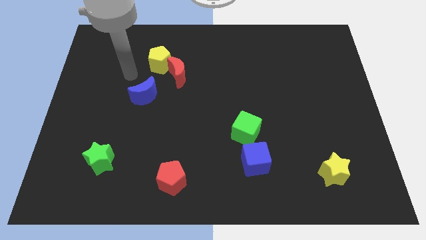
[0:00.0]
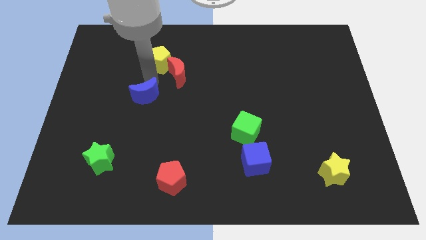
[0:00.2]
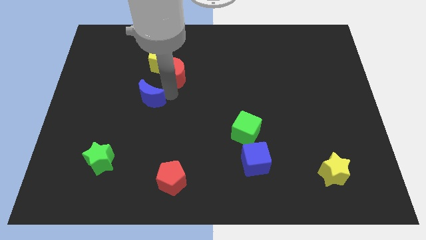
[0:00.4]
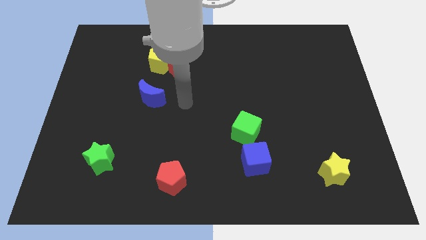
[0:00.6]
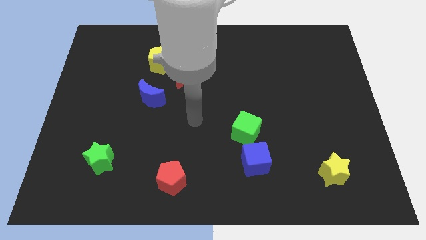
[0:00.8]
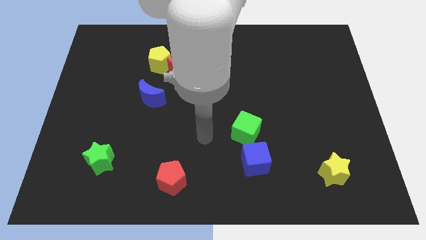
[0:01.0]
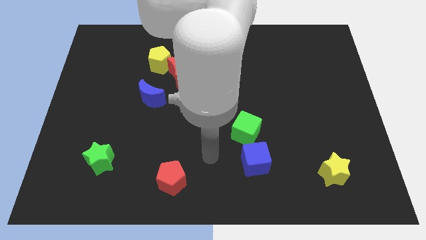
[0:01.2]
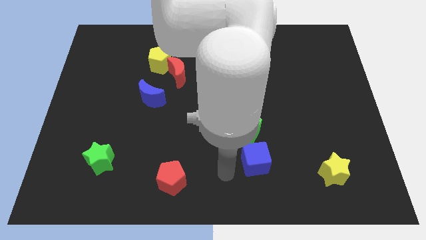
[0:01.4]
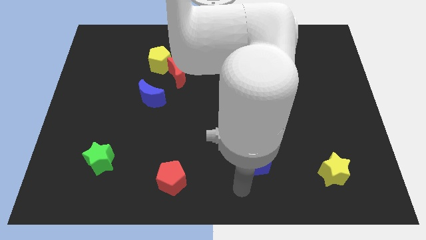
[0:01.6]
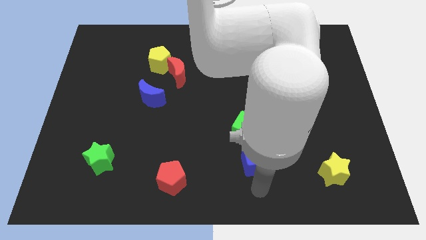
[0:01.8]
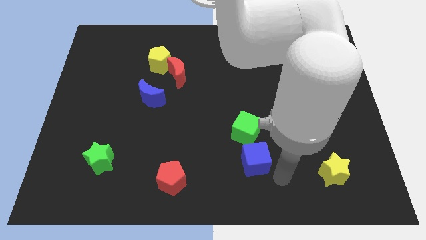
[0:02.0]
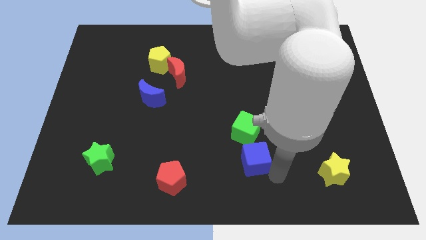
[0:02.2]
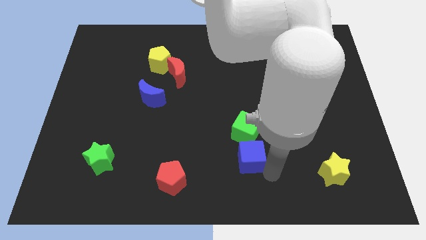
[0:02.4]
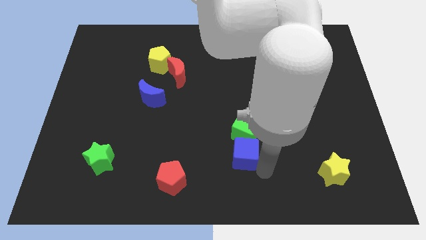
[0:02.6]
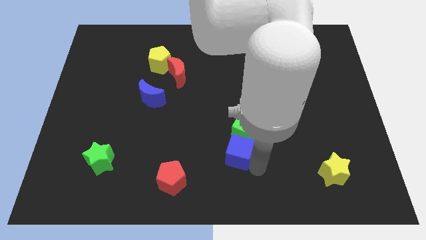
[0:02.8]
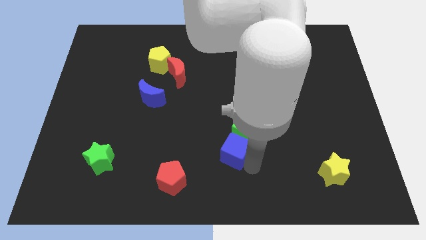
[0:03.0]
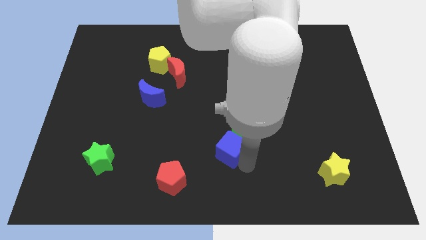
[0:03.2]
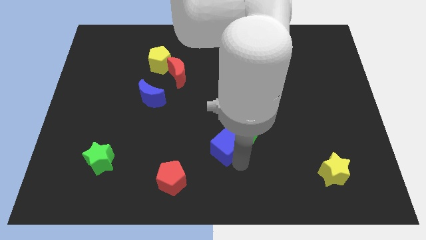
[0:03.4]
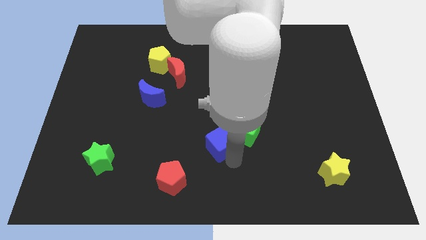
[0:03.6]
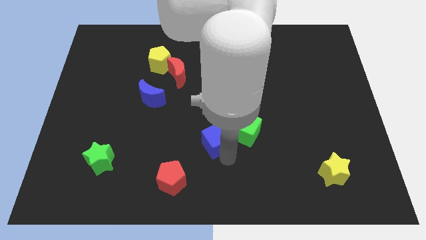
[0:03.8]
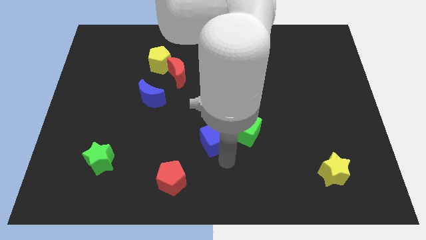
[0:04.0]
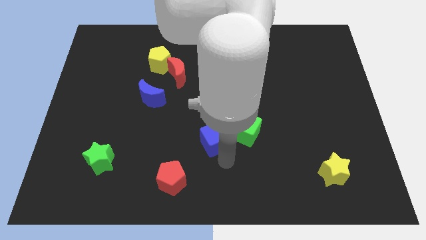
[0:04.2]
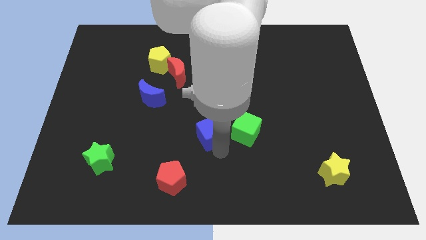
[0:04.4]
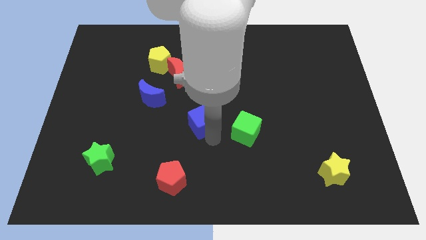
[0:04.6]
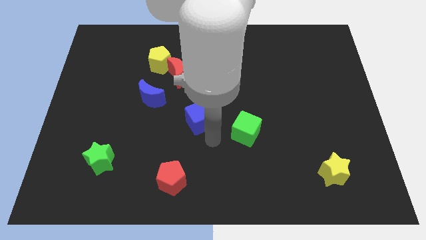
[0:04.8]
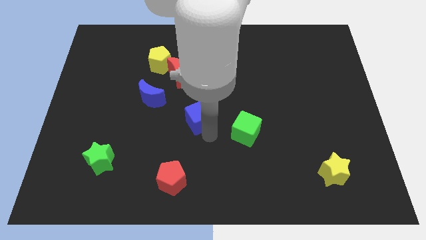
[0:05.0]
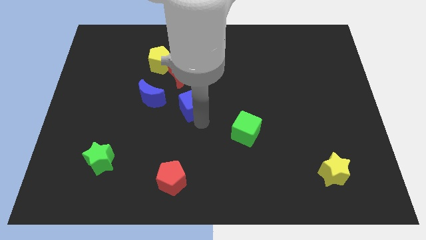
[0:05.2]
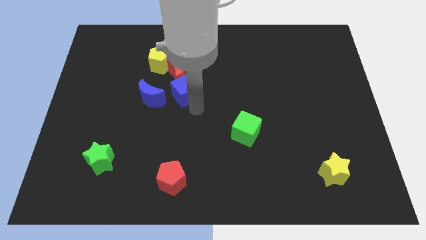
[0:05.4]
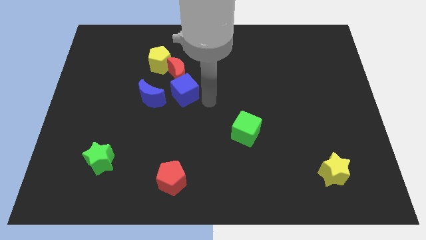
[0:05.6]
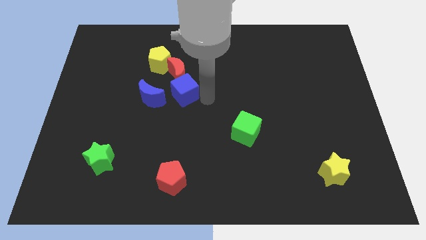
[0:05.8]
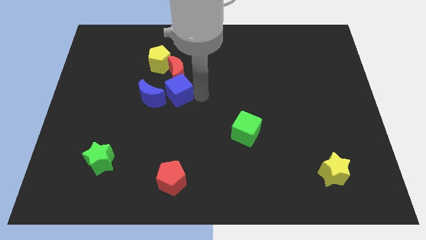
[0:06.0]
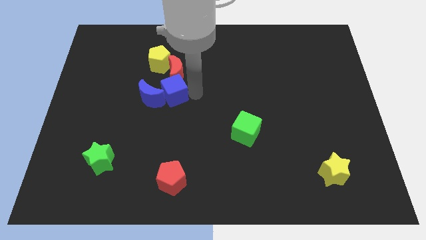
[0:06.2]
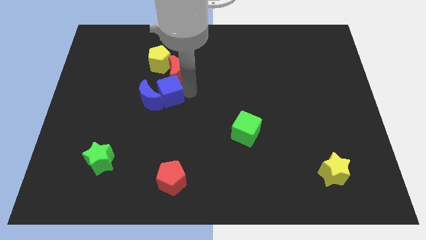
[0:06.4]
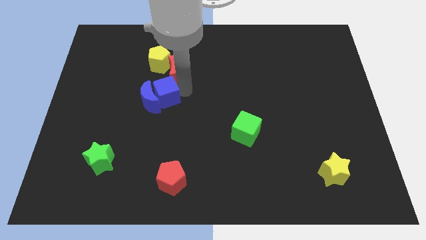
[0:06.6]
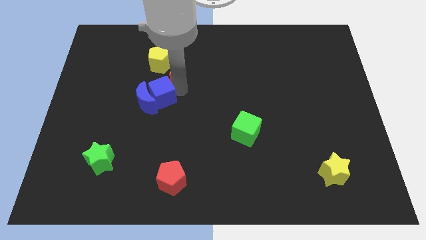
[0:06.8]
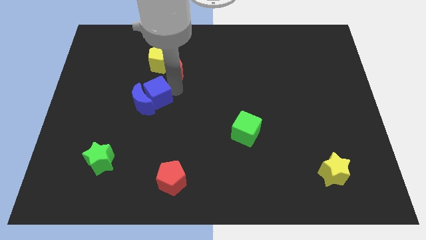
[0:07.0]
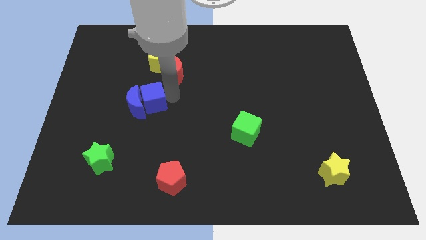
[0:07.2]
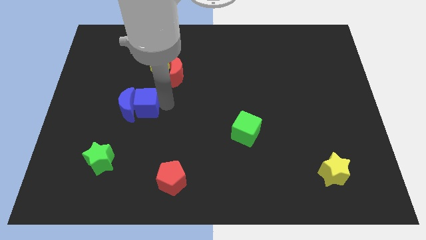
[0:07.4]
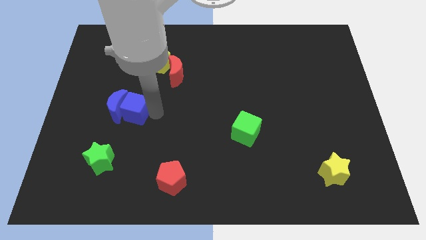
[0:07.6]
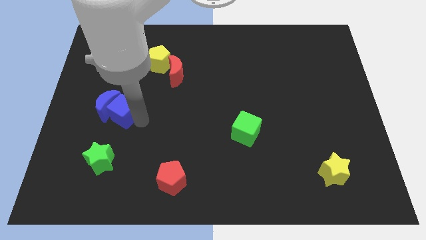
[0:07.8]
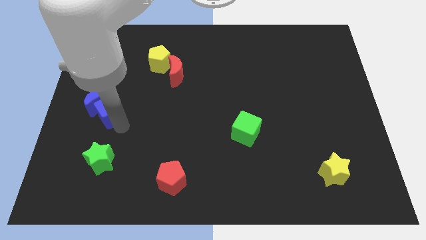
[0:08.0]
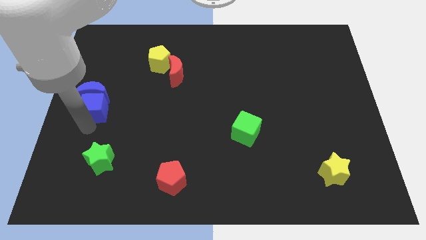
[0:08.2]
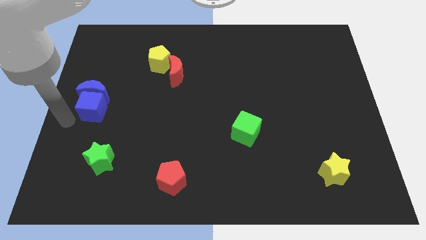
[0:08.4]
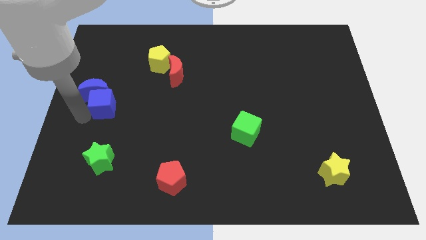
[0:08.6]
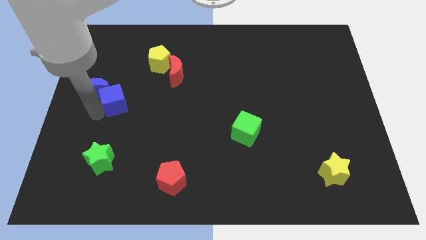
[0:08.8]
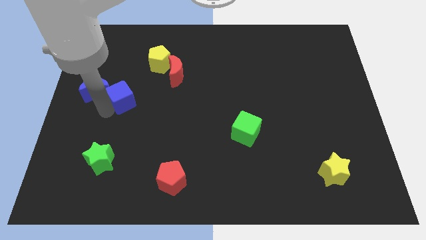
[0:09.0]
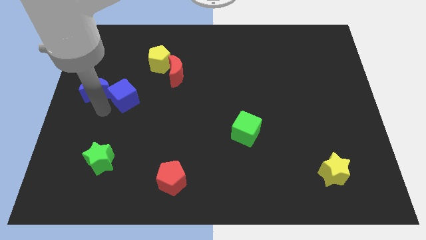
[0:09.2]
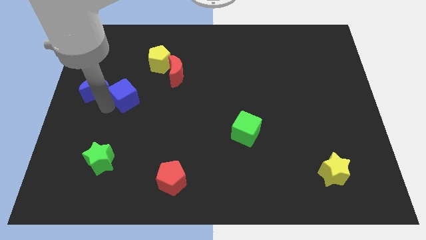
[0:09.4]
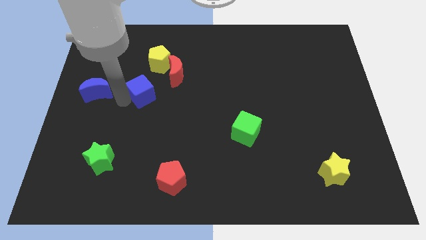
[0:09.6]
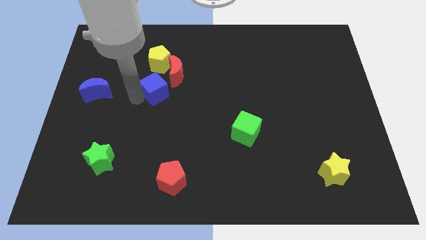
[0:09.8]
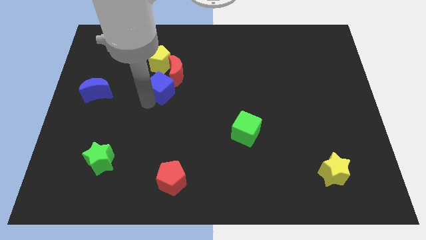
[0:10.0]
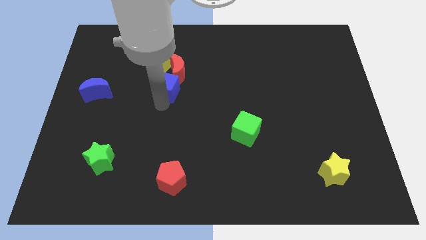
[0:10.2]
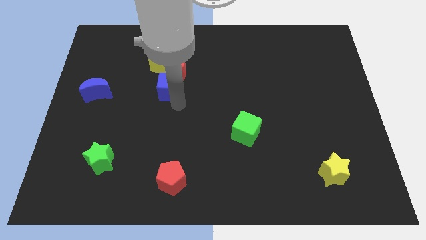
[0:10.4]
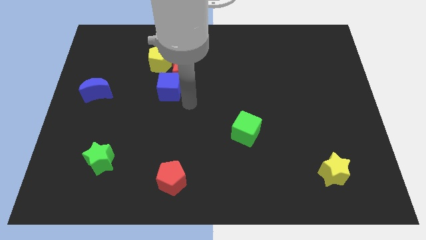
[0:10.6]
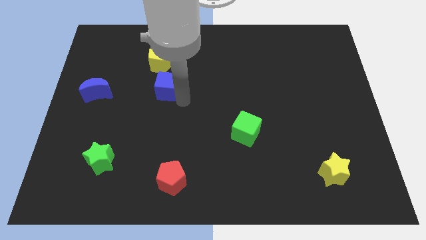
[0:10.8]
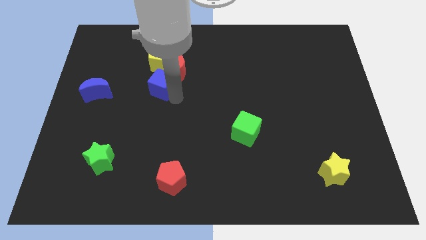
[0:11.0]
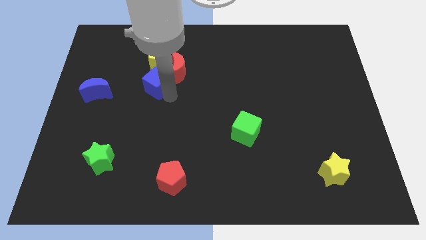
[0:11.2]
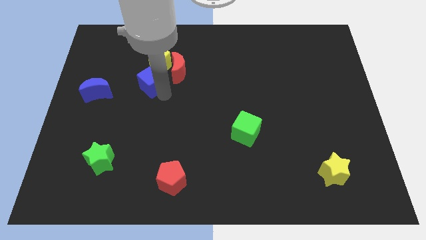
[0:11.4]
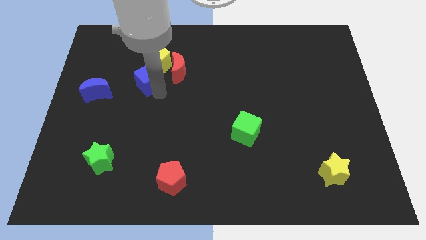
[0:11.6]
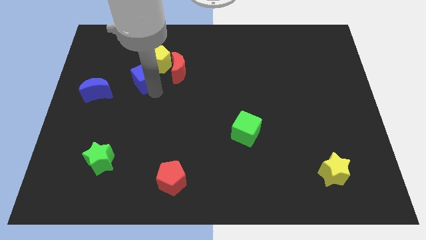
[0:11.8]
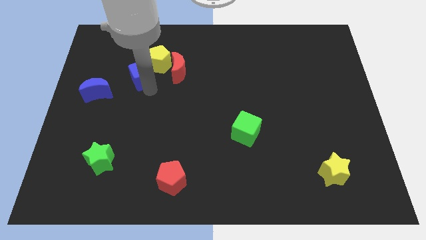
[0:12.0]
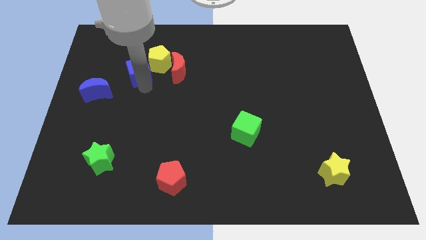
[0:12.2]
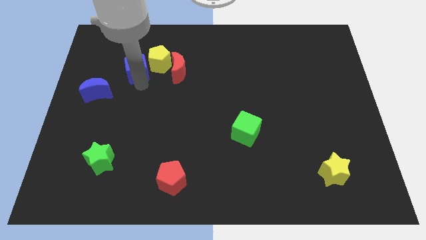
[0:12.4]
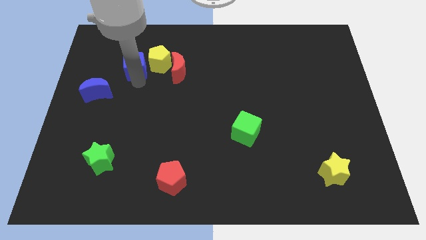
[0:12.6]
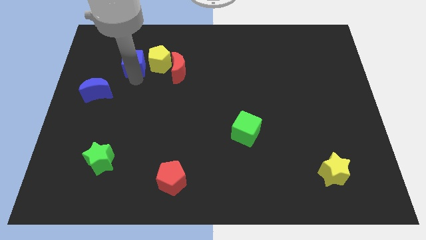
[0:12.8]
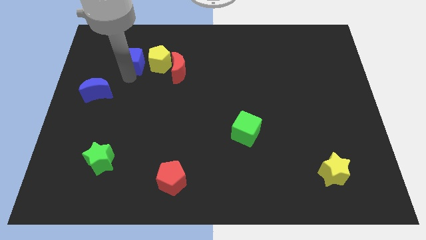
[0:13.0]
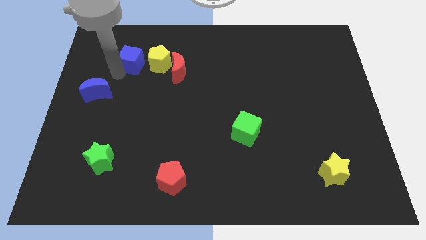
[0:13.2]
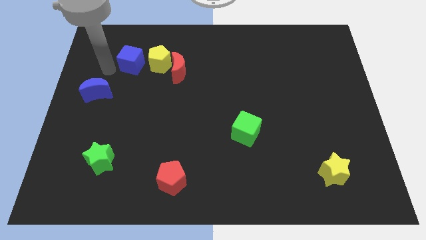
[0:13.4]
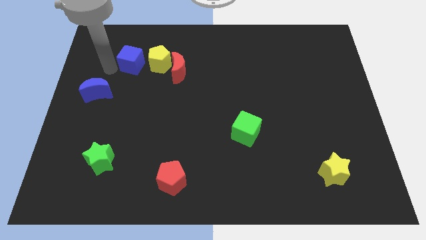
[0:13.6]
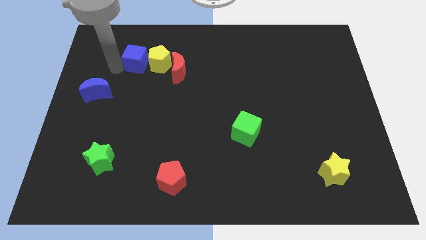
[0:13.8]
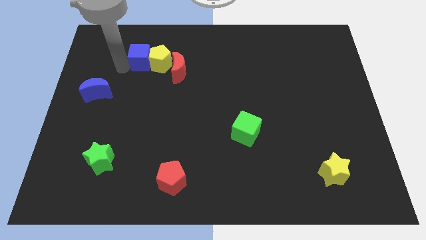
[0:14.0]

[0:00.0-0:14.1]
put the blue cube to the top left side of the red moon

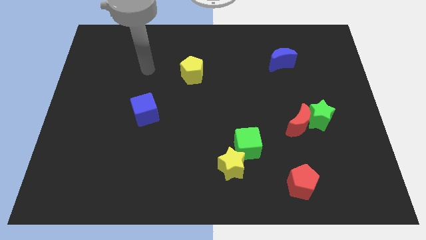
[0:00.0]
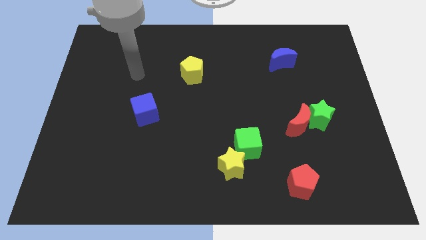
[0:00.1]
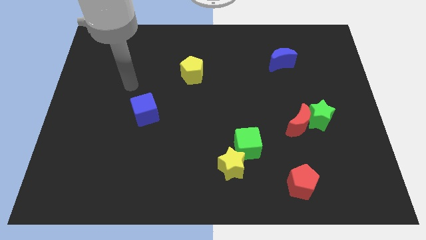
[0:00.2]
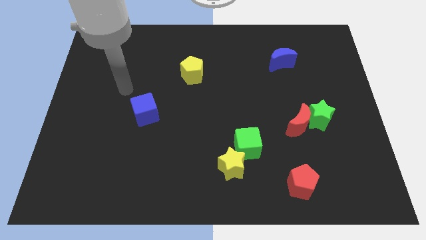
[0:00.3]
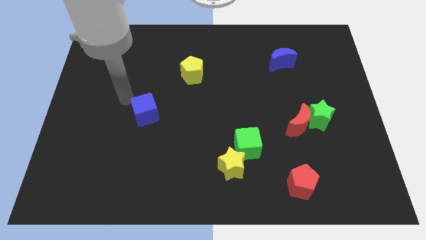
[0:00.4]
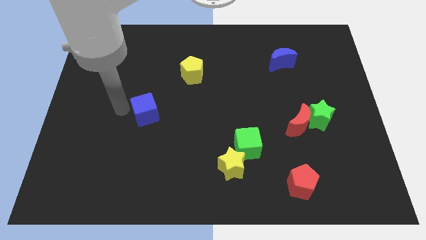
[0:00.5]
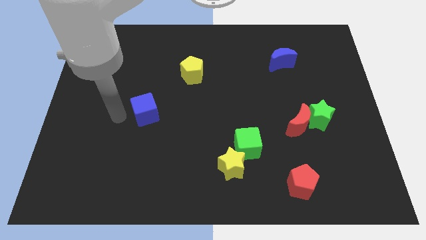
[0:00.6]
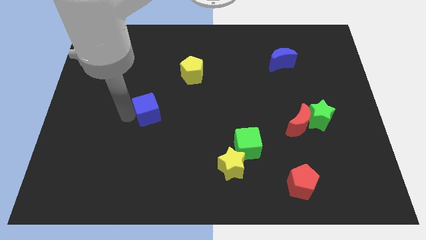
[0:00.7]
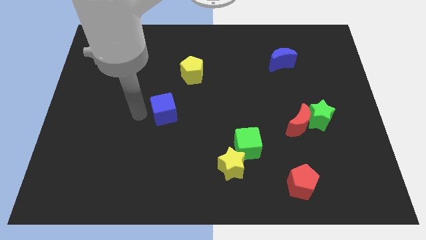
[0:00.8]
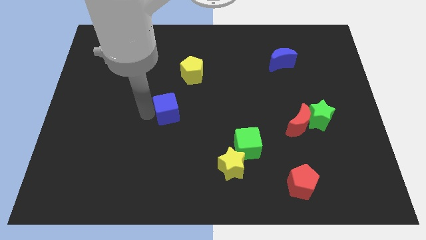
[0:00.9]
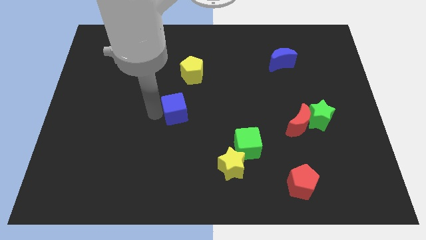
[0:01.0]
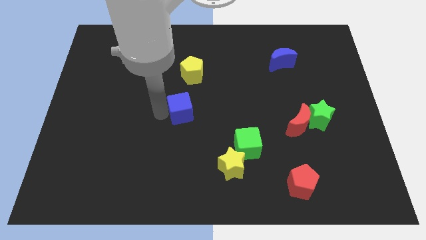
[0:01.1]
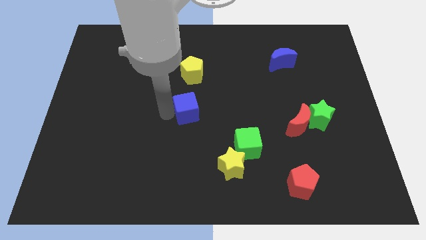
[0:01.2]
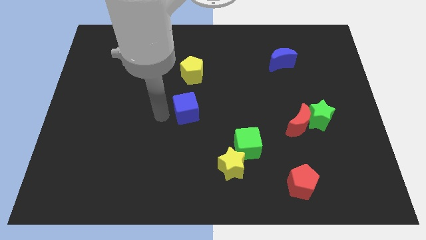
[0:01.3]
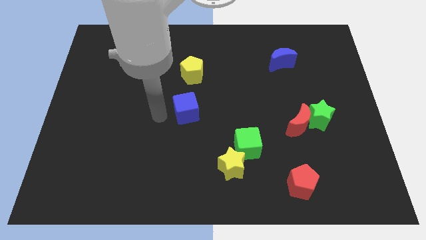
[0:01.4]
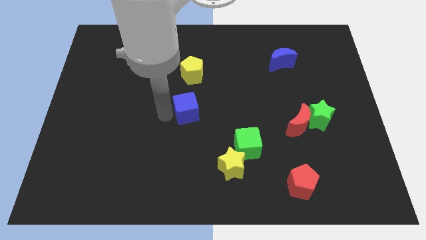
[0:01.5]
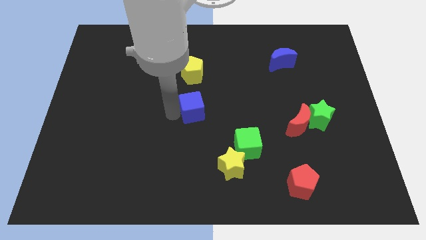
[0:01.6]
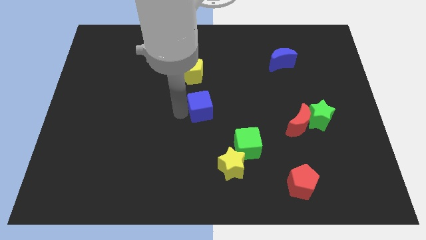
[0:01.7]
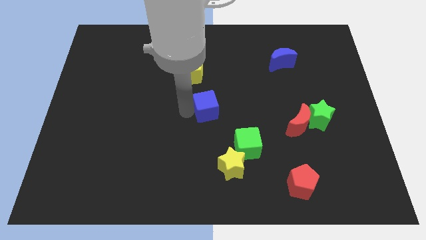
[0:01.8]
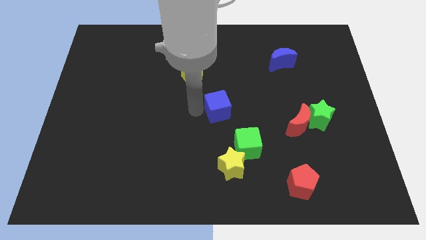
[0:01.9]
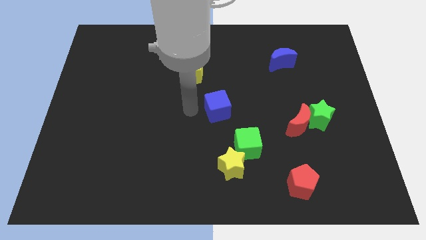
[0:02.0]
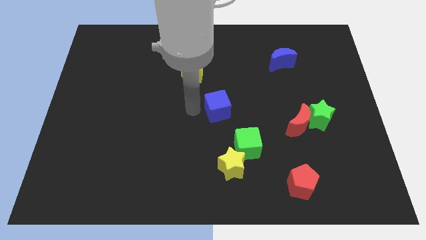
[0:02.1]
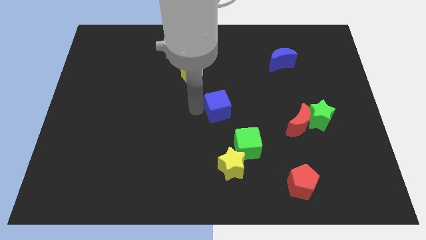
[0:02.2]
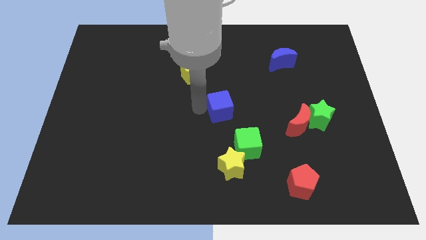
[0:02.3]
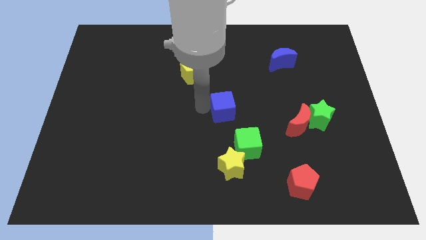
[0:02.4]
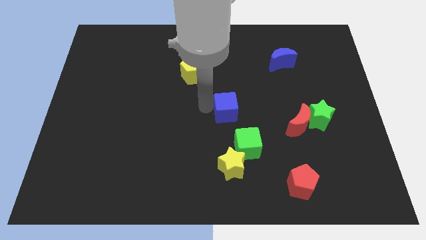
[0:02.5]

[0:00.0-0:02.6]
put the blue cube to the top side of the green cube
